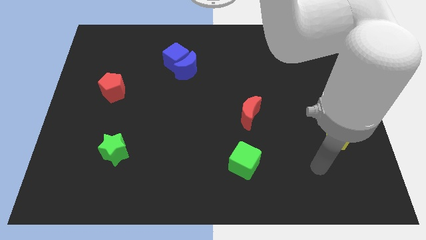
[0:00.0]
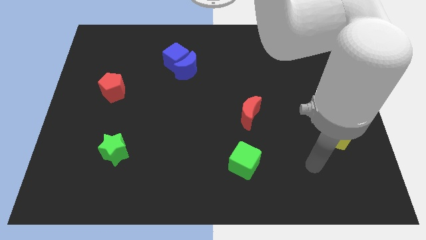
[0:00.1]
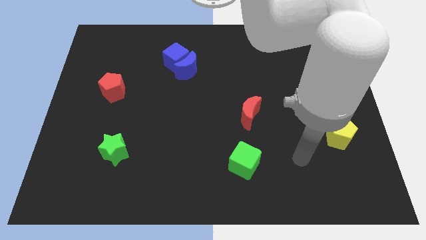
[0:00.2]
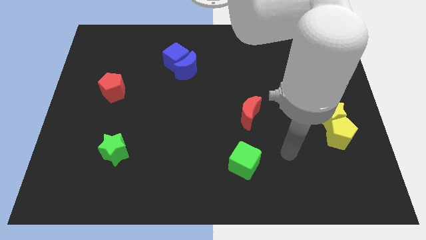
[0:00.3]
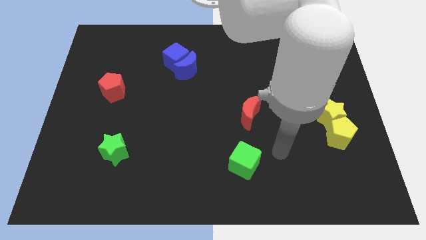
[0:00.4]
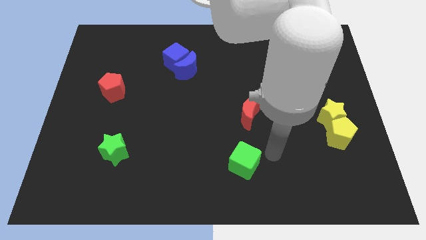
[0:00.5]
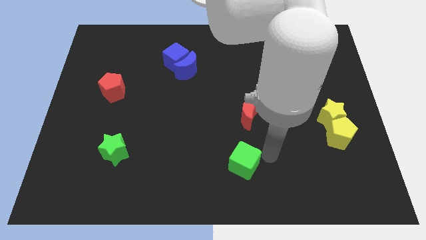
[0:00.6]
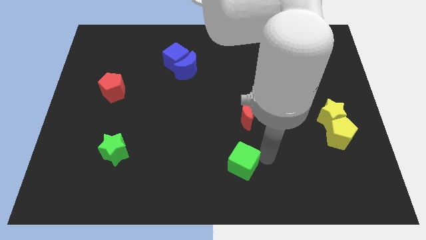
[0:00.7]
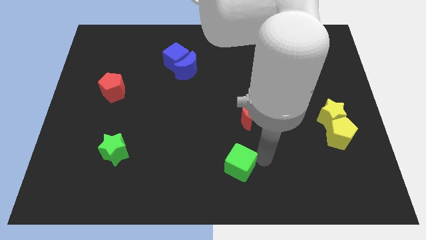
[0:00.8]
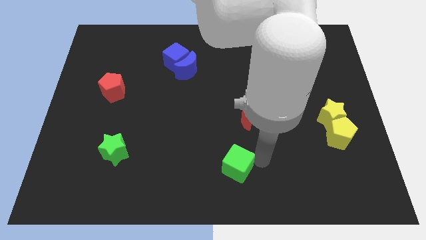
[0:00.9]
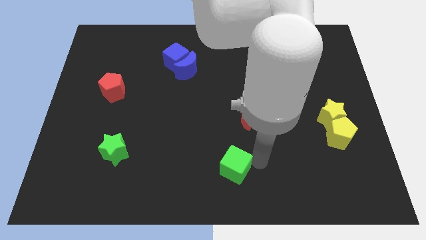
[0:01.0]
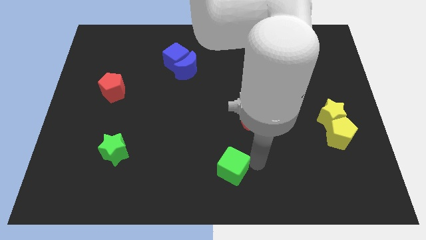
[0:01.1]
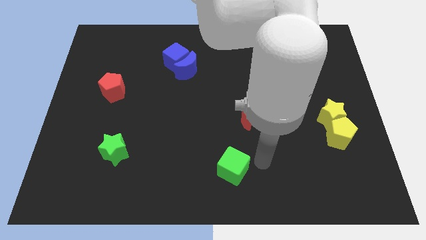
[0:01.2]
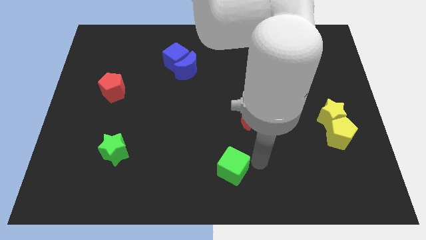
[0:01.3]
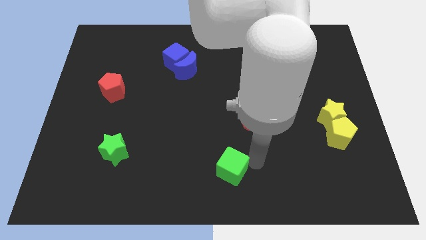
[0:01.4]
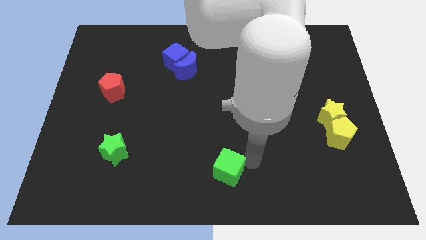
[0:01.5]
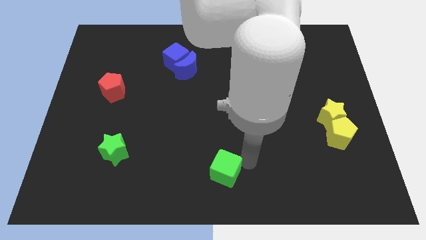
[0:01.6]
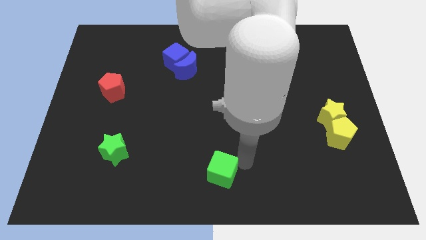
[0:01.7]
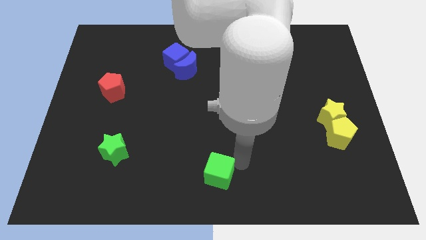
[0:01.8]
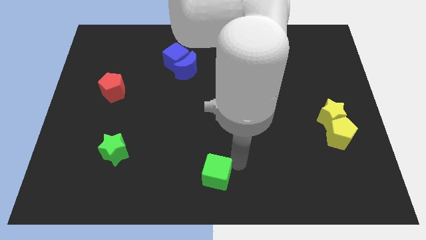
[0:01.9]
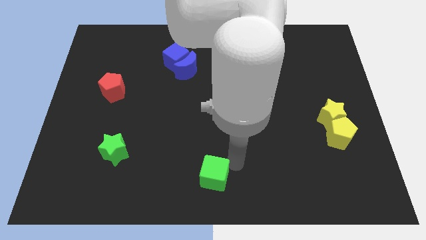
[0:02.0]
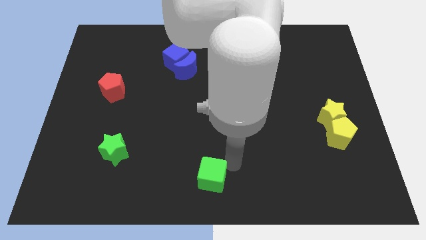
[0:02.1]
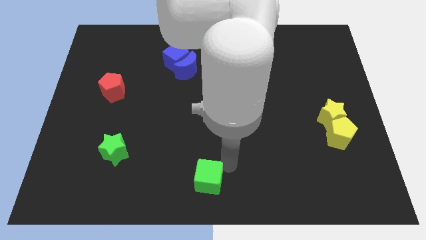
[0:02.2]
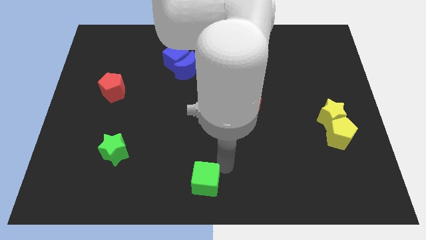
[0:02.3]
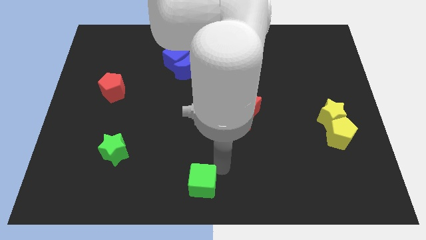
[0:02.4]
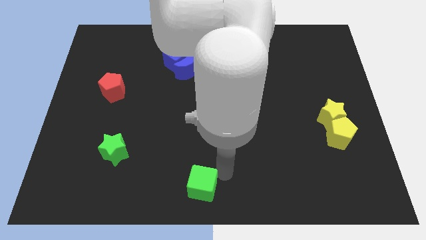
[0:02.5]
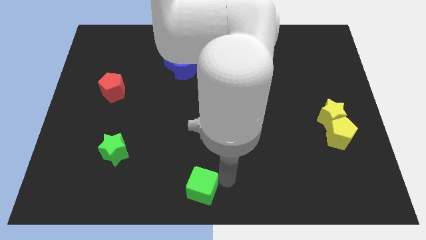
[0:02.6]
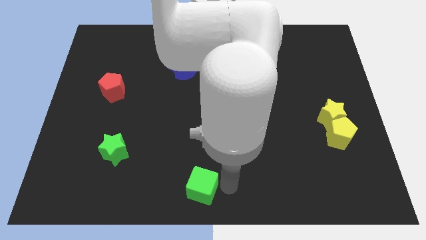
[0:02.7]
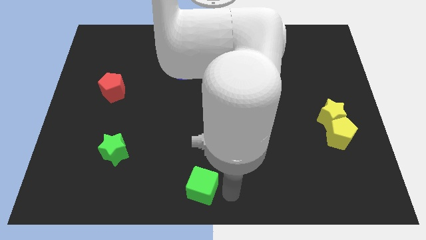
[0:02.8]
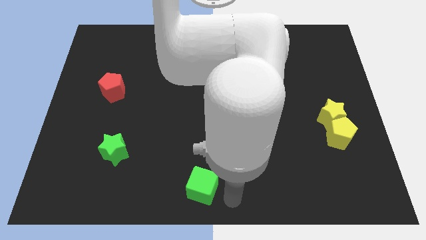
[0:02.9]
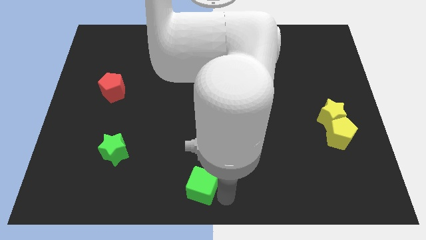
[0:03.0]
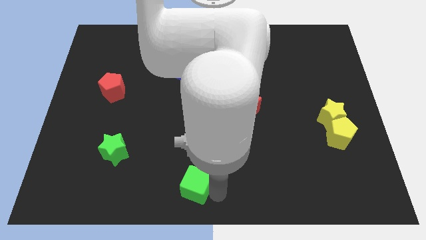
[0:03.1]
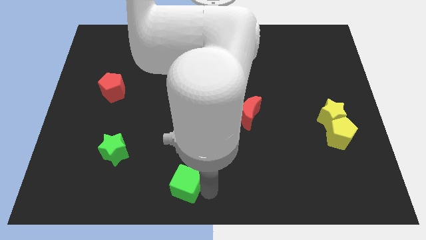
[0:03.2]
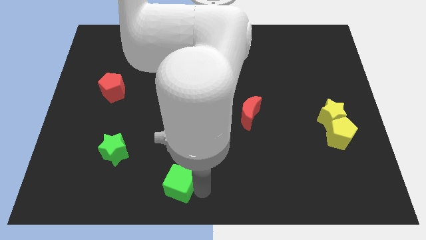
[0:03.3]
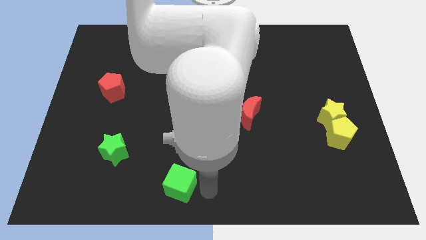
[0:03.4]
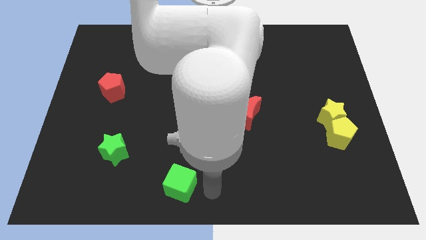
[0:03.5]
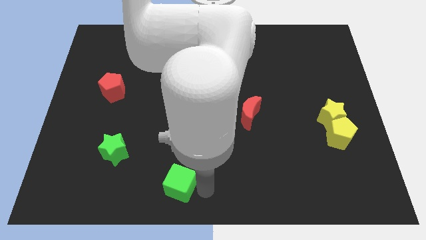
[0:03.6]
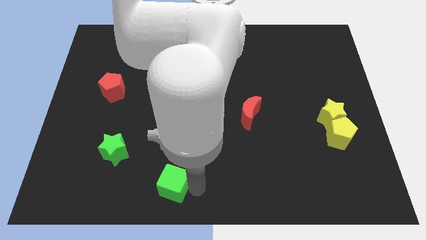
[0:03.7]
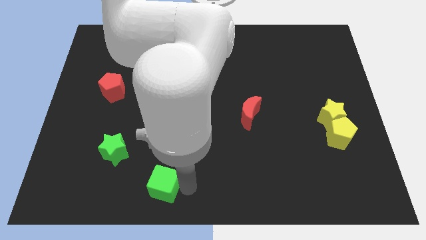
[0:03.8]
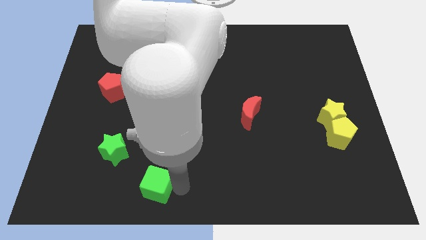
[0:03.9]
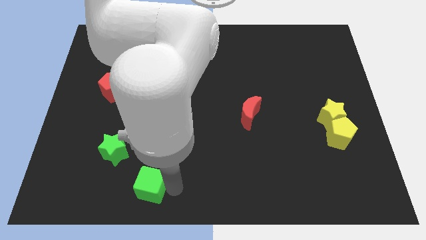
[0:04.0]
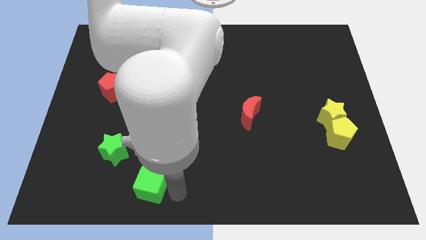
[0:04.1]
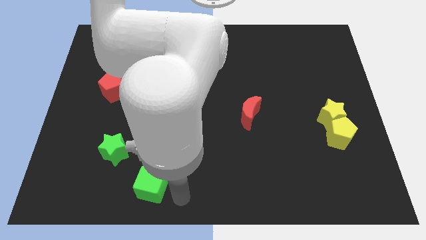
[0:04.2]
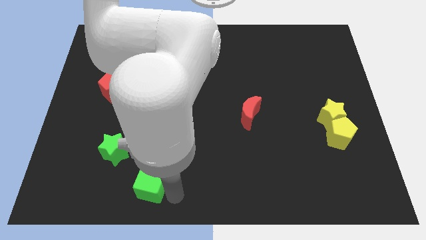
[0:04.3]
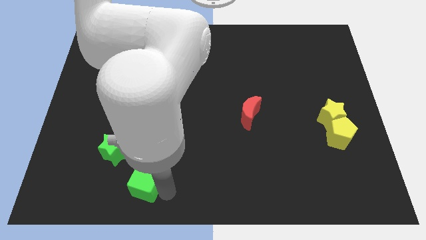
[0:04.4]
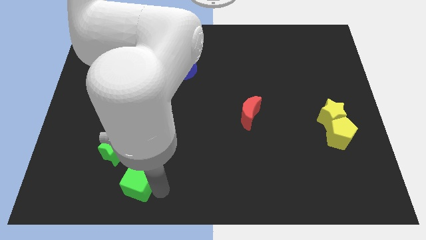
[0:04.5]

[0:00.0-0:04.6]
move the green cube left

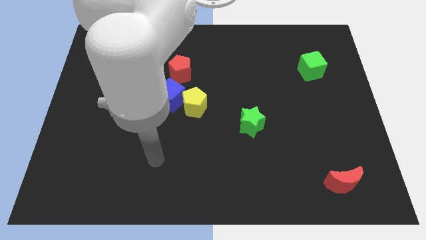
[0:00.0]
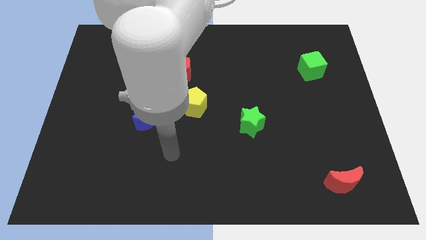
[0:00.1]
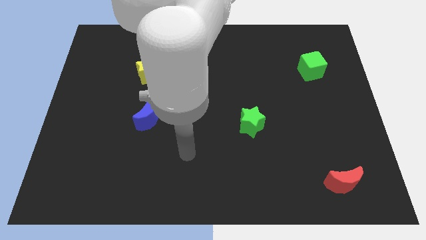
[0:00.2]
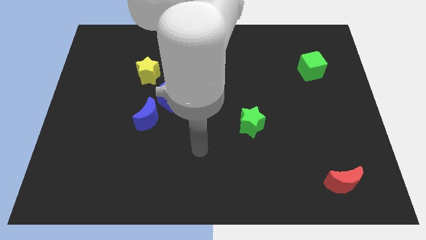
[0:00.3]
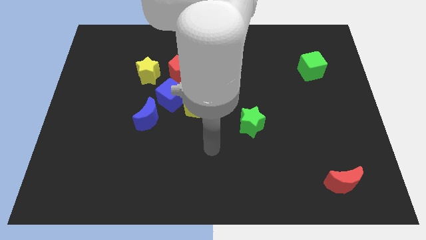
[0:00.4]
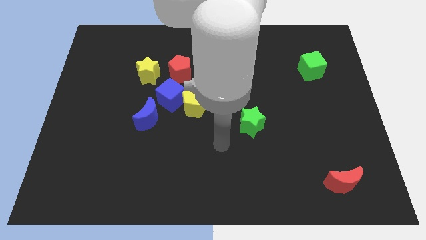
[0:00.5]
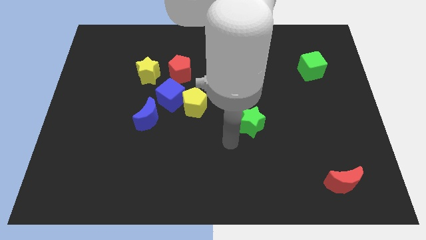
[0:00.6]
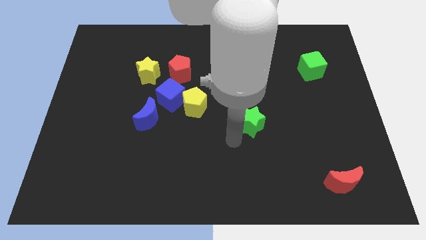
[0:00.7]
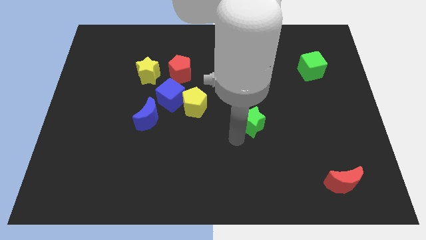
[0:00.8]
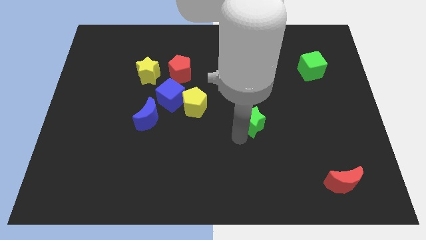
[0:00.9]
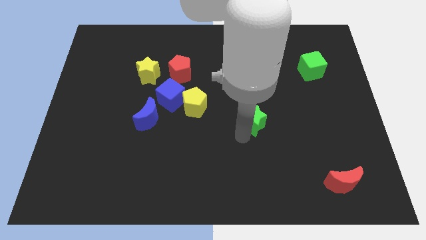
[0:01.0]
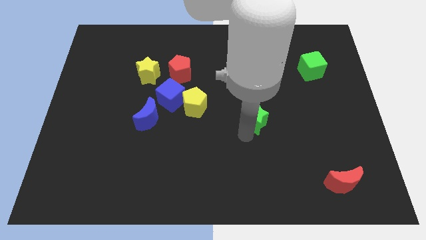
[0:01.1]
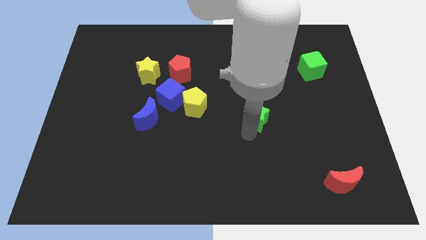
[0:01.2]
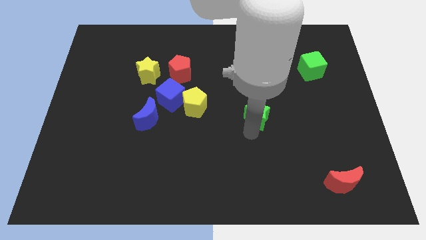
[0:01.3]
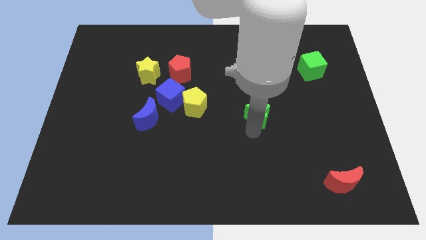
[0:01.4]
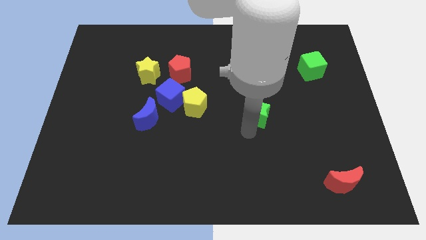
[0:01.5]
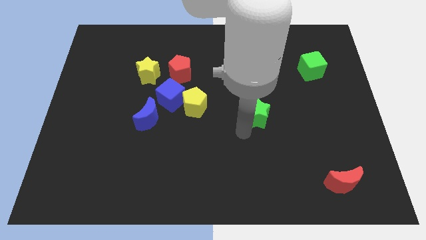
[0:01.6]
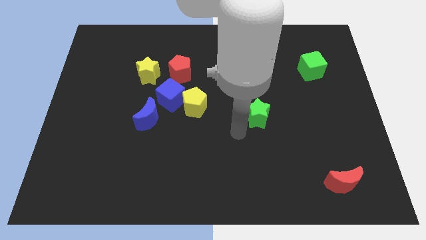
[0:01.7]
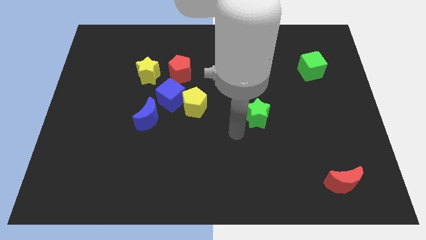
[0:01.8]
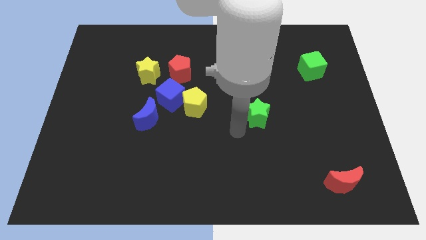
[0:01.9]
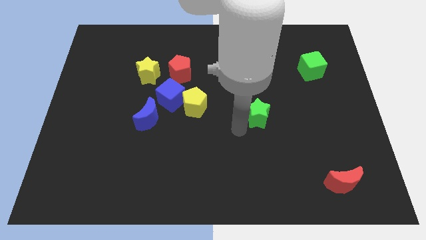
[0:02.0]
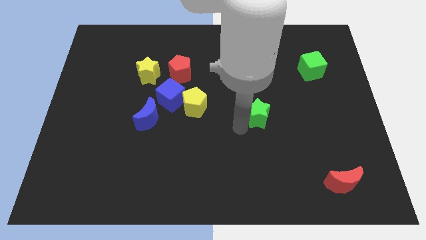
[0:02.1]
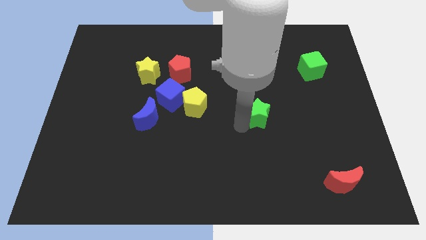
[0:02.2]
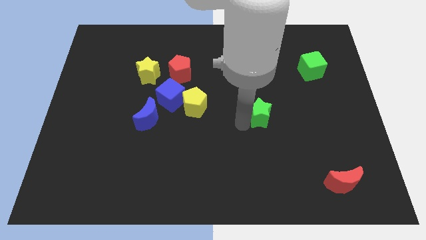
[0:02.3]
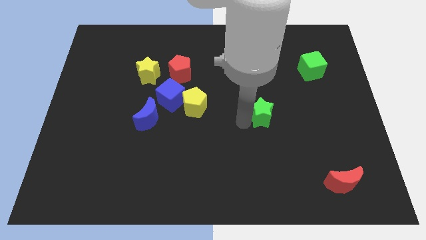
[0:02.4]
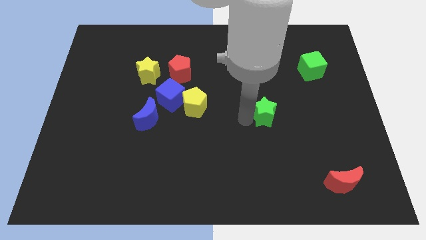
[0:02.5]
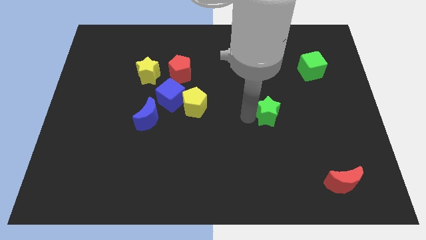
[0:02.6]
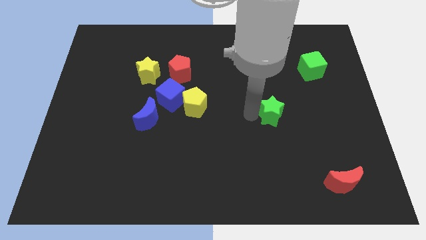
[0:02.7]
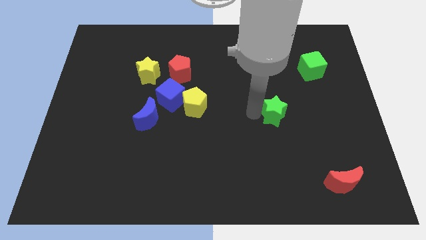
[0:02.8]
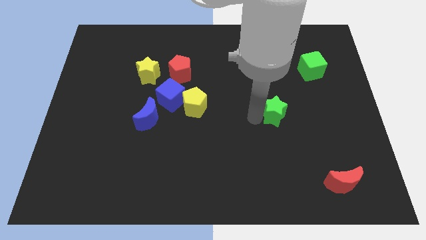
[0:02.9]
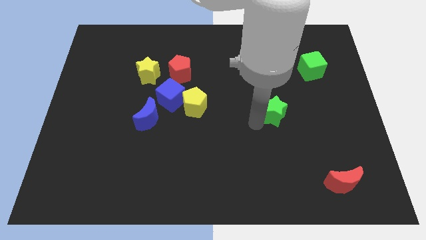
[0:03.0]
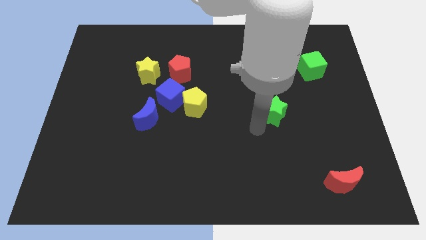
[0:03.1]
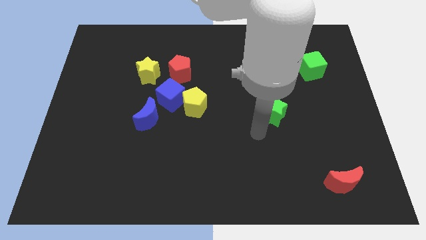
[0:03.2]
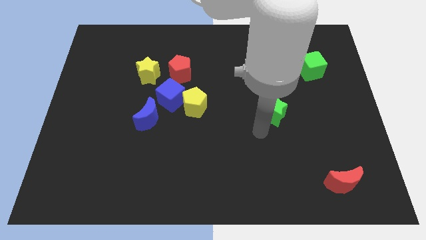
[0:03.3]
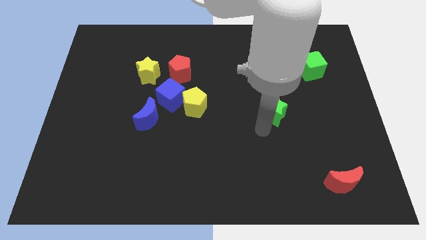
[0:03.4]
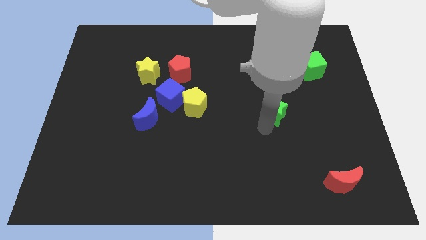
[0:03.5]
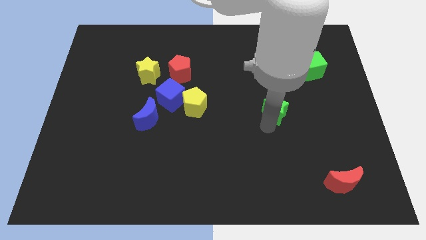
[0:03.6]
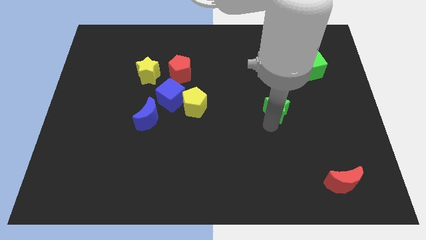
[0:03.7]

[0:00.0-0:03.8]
slightly move the green star upwards and to the right
